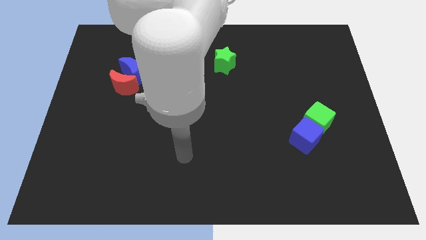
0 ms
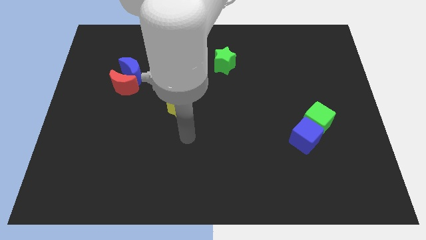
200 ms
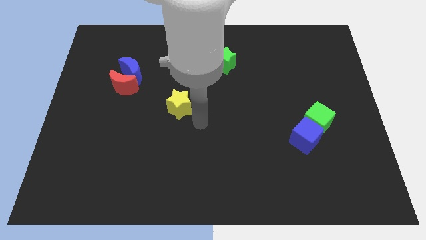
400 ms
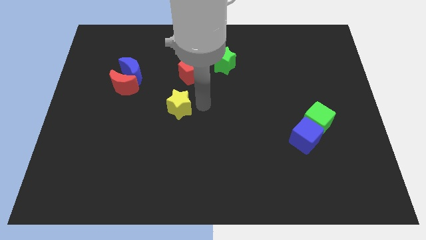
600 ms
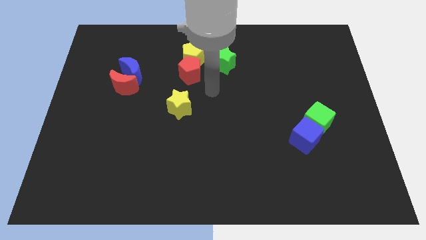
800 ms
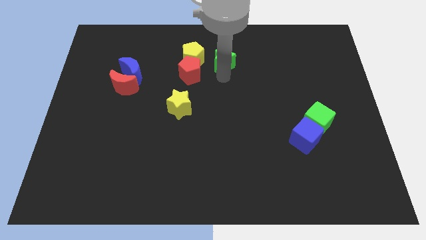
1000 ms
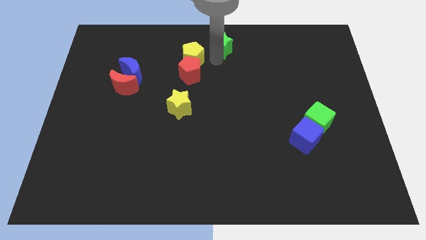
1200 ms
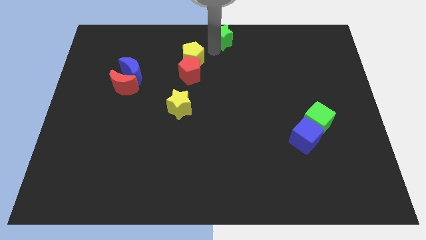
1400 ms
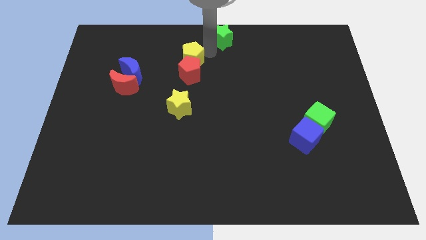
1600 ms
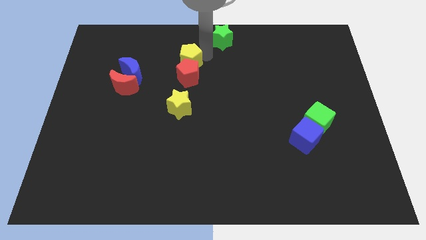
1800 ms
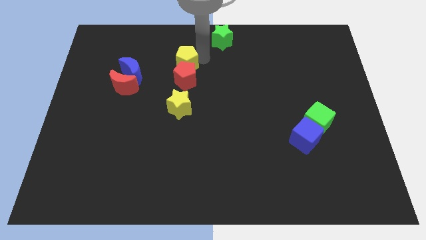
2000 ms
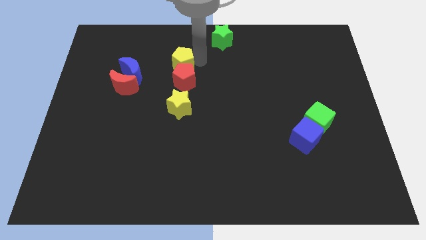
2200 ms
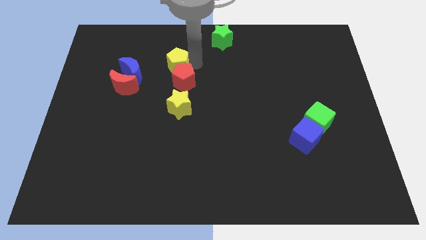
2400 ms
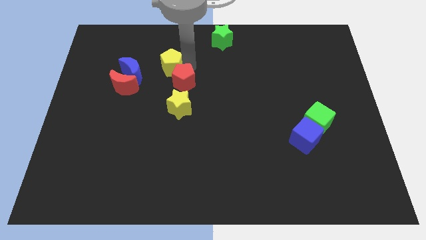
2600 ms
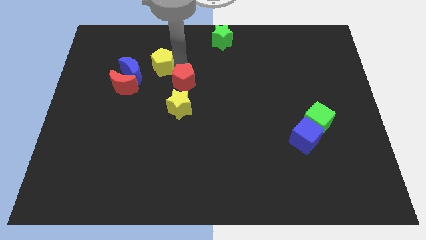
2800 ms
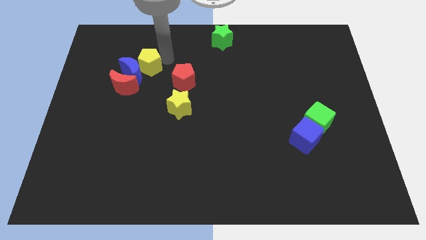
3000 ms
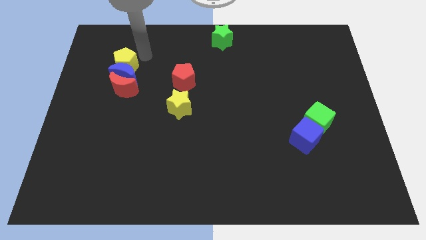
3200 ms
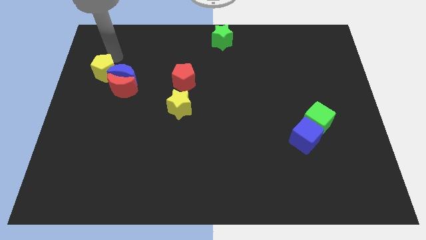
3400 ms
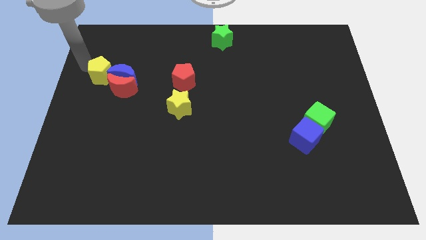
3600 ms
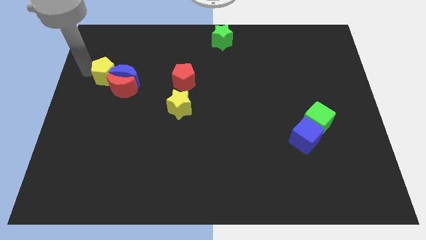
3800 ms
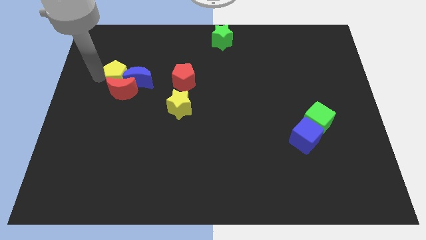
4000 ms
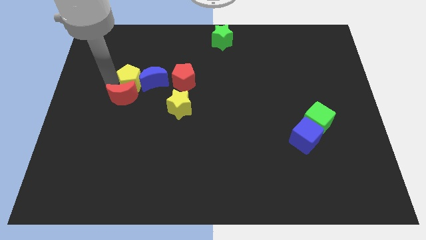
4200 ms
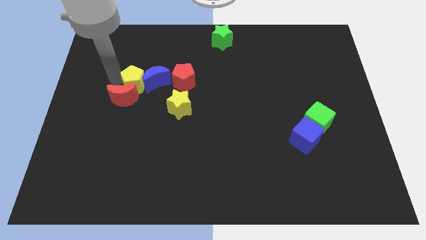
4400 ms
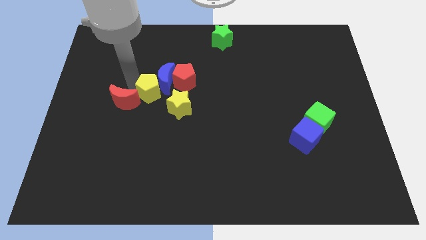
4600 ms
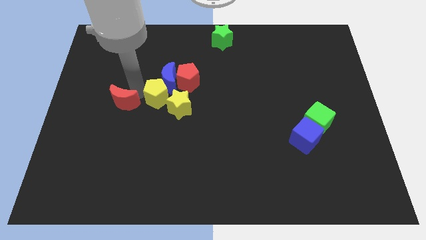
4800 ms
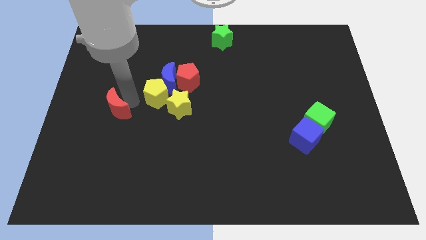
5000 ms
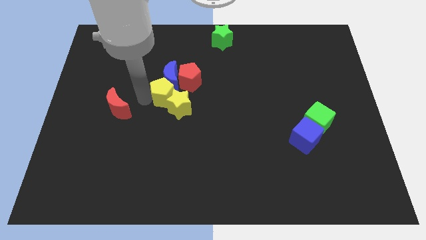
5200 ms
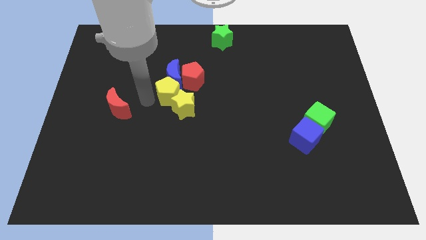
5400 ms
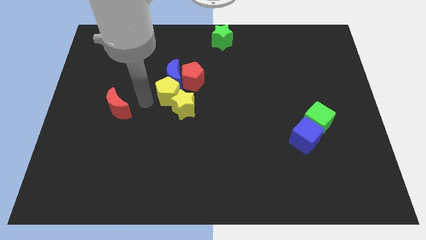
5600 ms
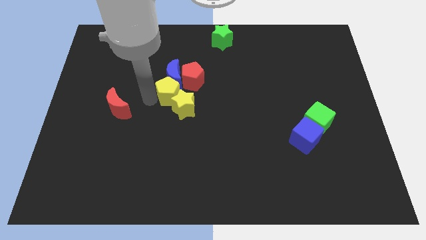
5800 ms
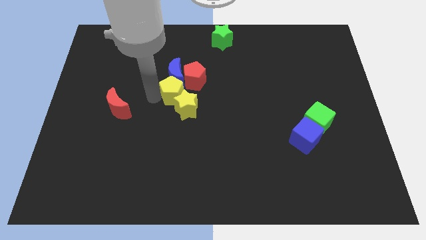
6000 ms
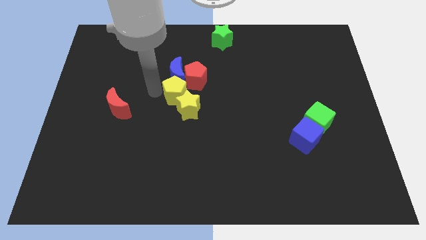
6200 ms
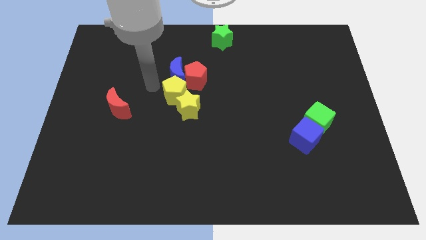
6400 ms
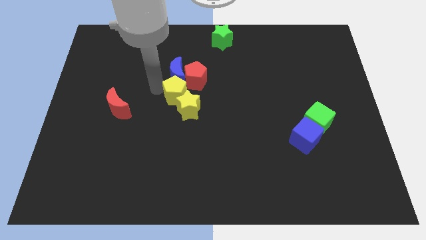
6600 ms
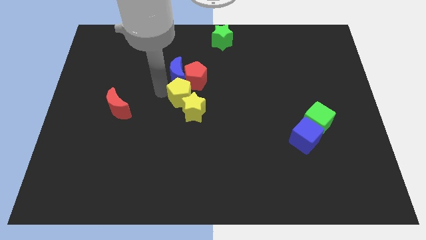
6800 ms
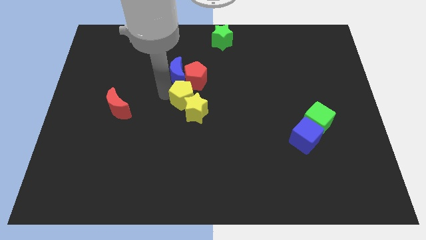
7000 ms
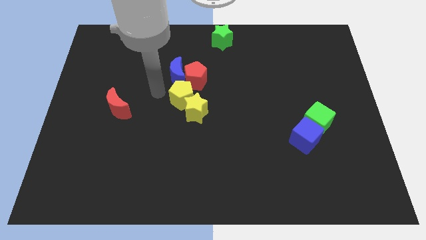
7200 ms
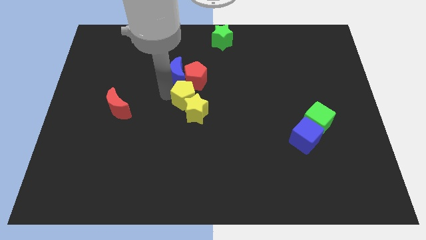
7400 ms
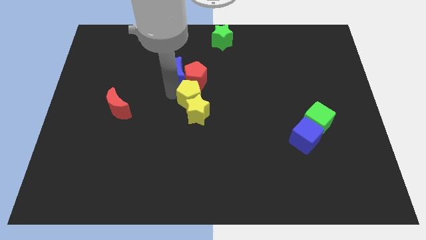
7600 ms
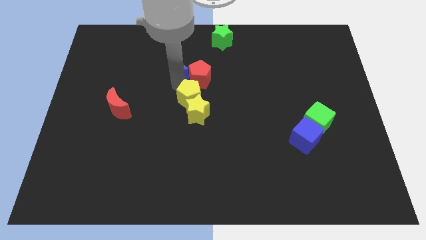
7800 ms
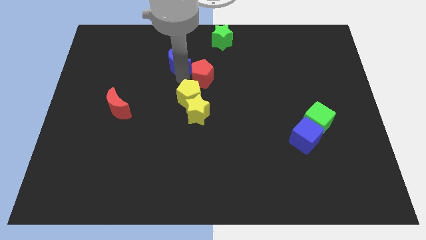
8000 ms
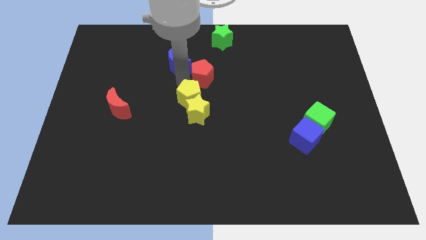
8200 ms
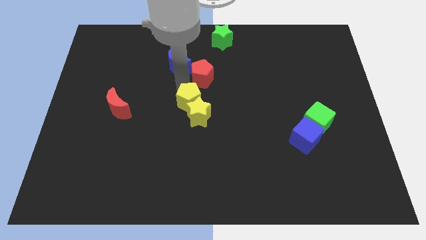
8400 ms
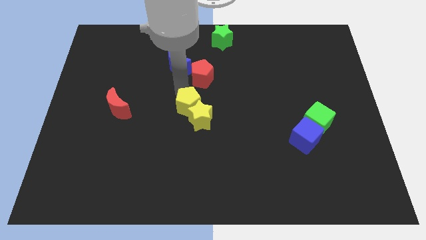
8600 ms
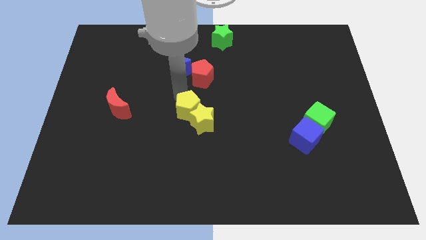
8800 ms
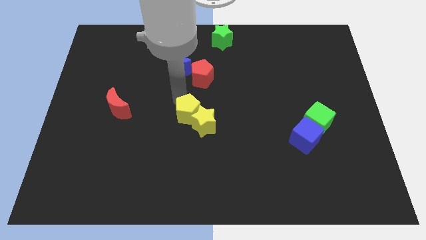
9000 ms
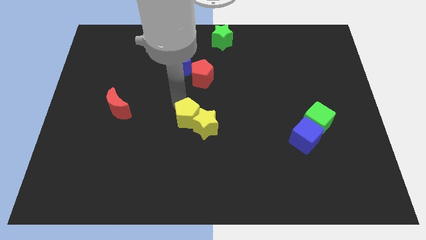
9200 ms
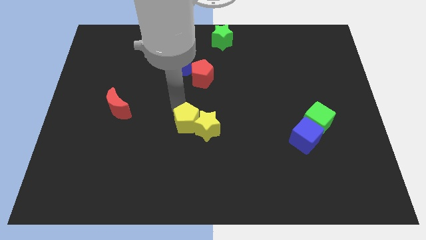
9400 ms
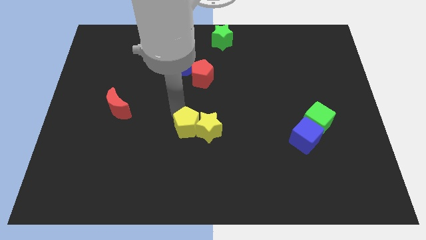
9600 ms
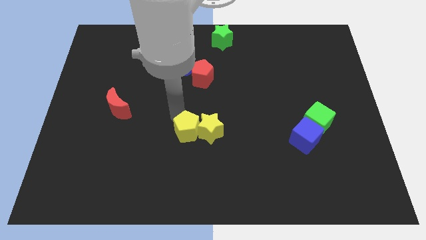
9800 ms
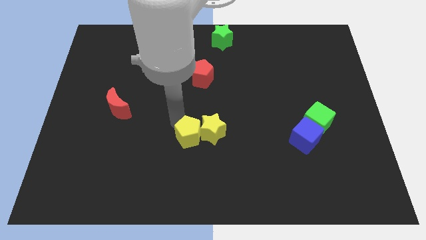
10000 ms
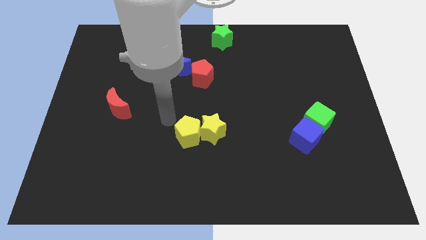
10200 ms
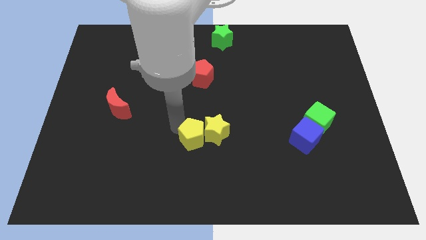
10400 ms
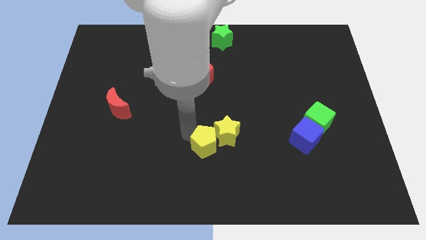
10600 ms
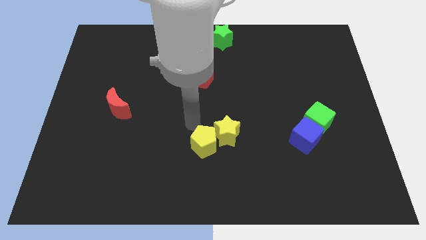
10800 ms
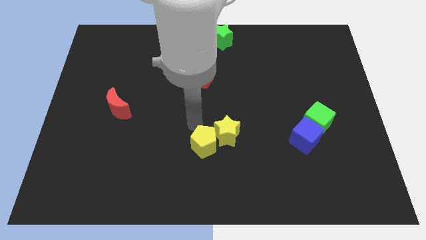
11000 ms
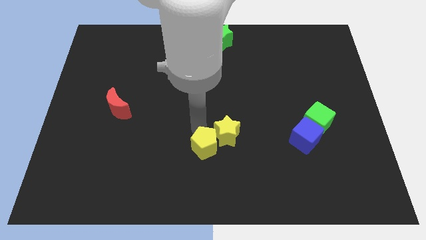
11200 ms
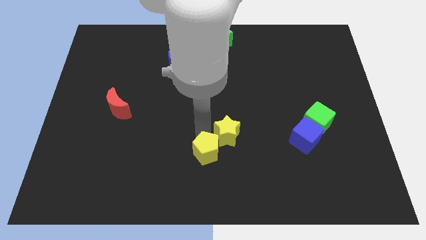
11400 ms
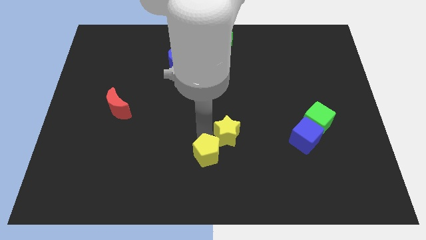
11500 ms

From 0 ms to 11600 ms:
move the yellow pentagon to the bottom side

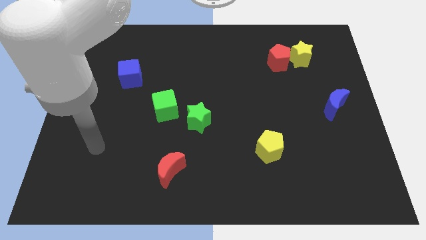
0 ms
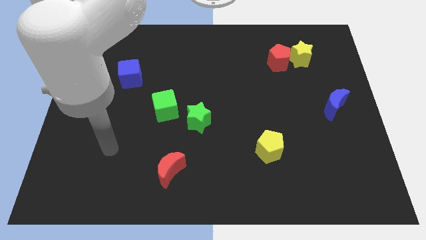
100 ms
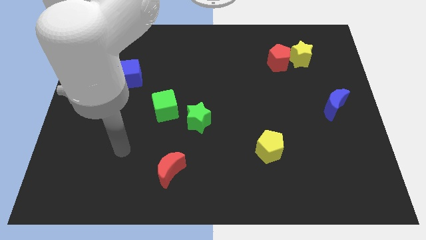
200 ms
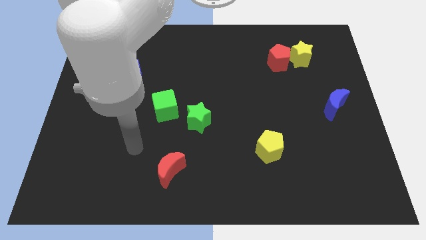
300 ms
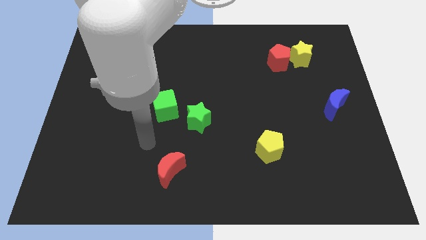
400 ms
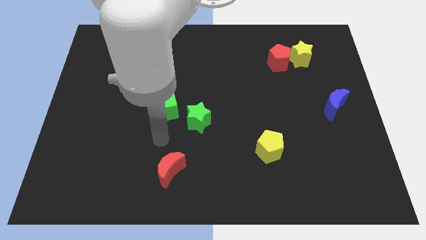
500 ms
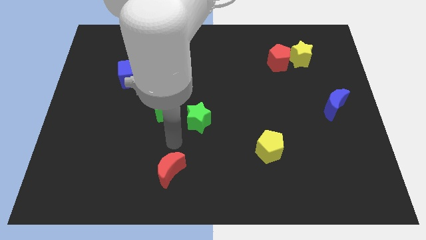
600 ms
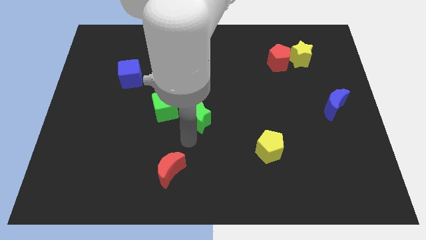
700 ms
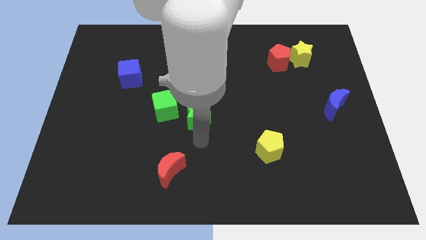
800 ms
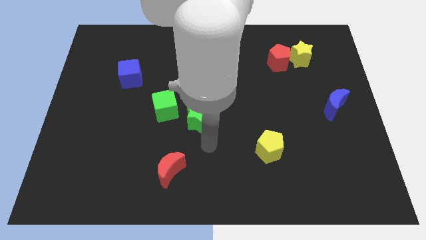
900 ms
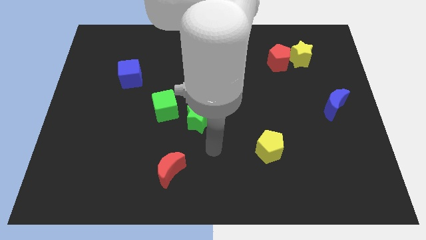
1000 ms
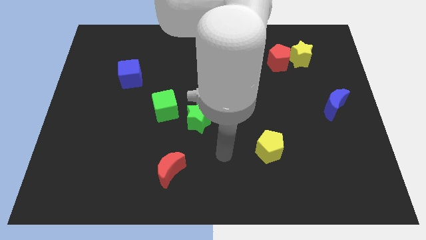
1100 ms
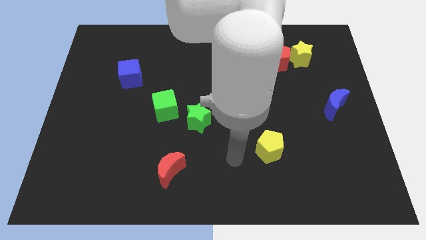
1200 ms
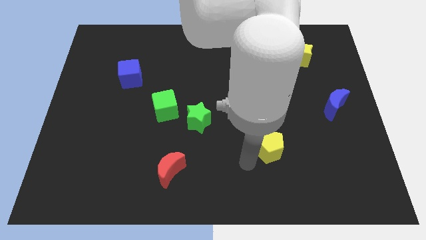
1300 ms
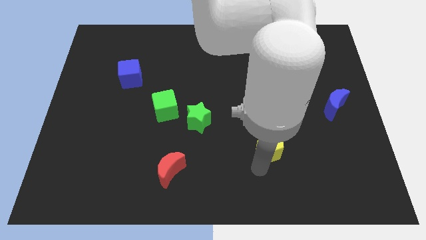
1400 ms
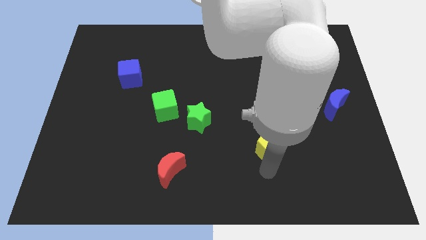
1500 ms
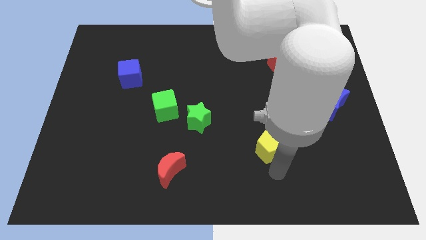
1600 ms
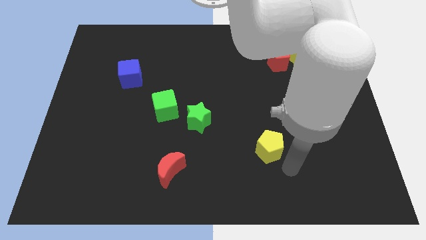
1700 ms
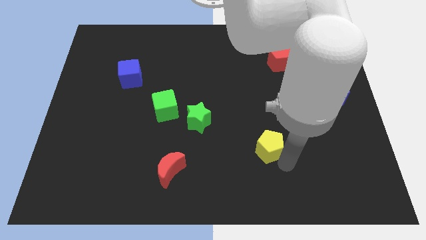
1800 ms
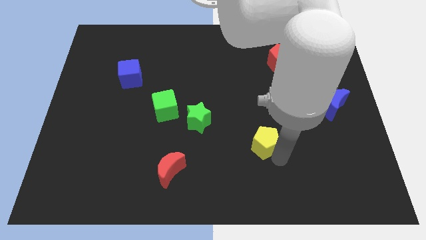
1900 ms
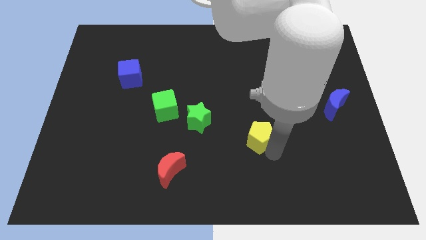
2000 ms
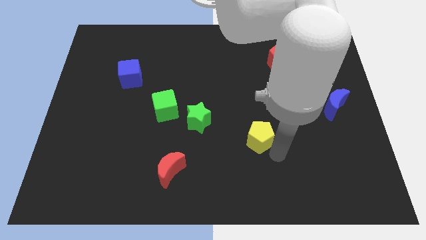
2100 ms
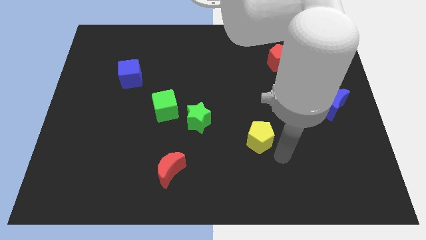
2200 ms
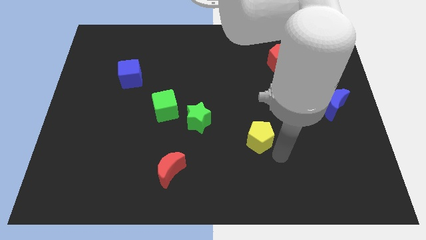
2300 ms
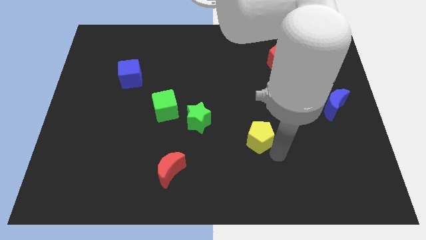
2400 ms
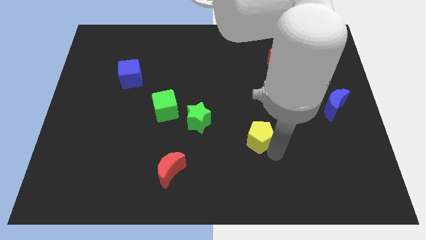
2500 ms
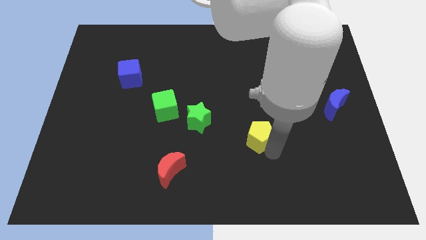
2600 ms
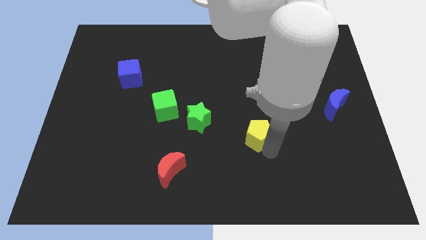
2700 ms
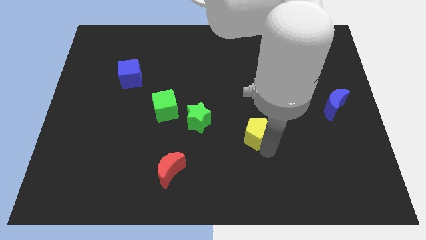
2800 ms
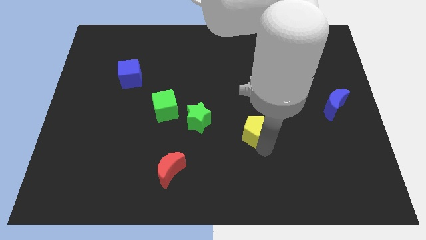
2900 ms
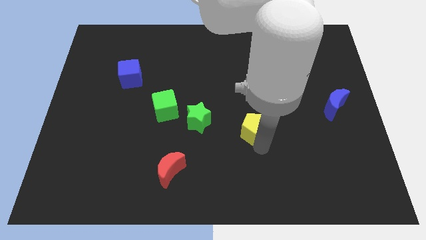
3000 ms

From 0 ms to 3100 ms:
push the yellow pentagon to the center of the board
